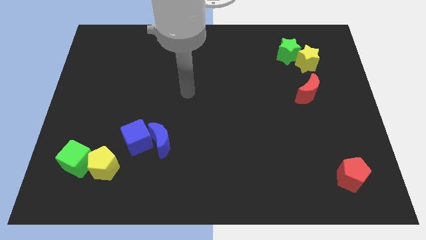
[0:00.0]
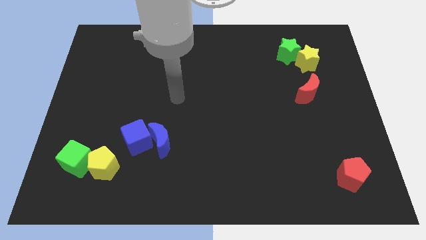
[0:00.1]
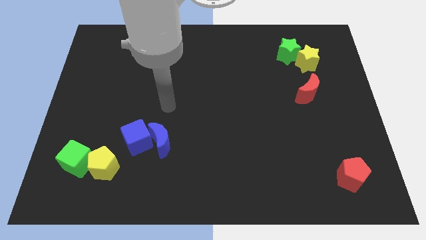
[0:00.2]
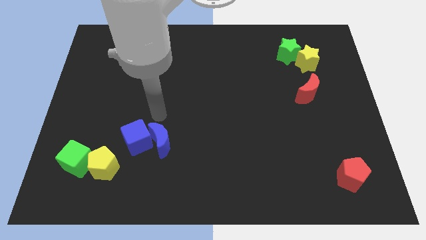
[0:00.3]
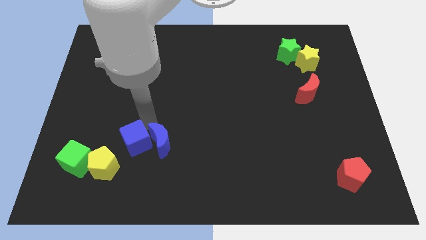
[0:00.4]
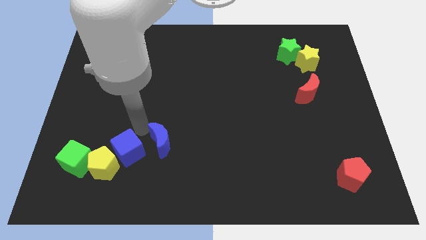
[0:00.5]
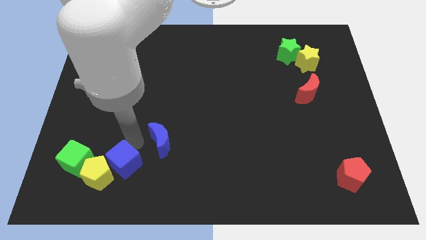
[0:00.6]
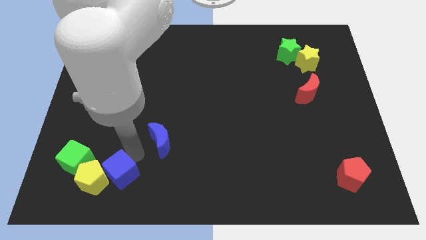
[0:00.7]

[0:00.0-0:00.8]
move the blue moon away from the blue cube

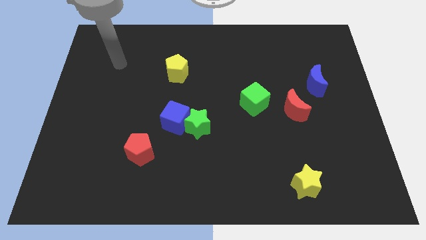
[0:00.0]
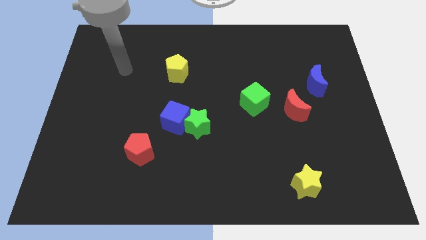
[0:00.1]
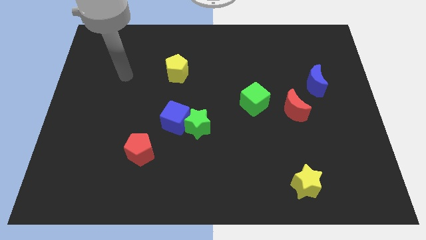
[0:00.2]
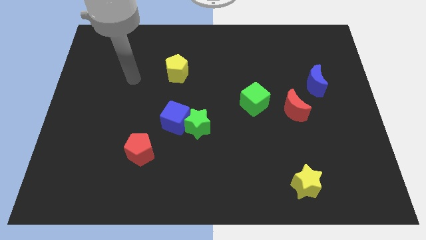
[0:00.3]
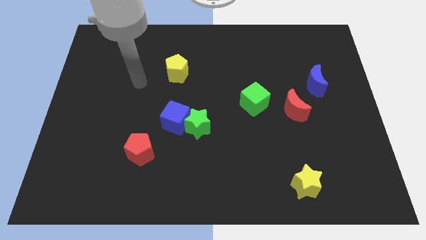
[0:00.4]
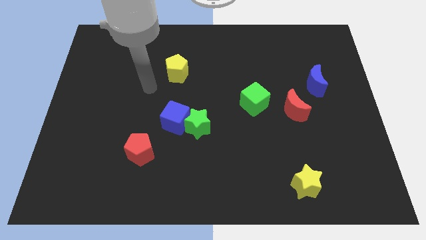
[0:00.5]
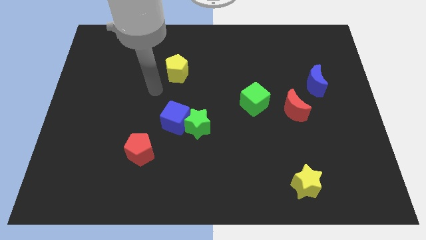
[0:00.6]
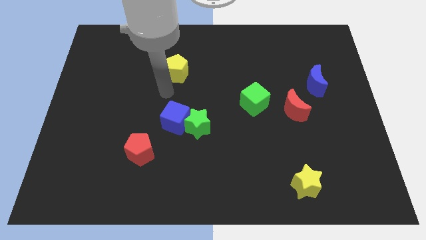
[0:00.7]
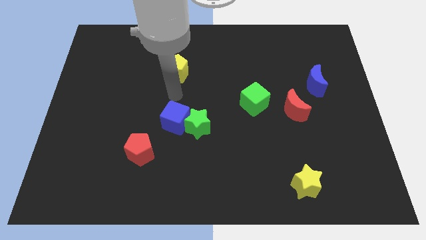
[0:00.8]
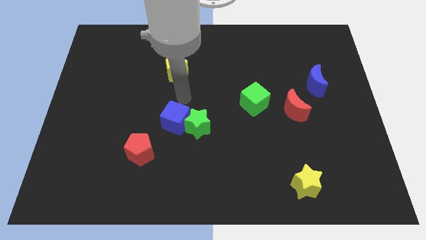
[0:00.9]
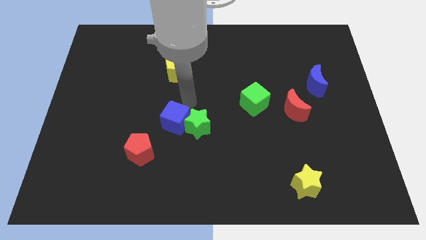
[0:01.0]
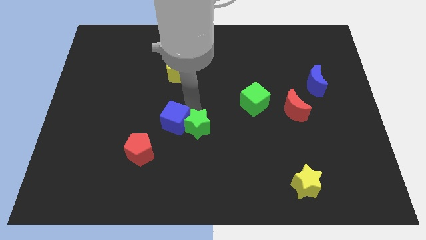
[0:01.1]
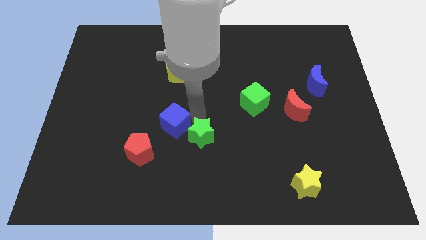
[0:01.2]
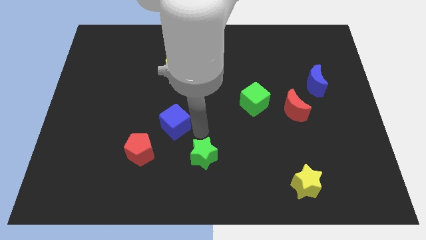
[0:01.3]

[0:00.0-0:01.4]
separate the blue cube from the green star

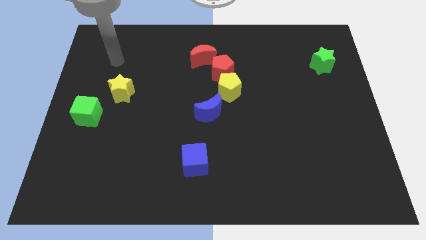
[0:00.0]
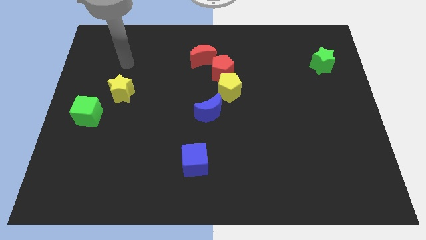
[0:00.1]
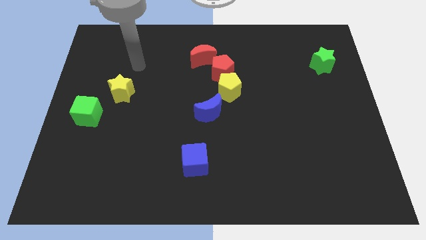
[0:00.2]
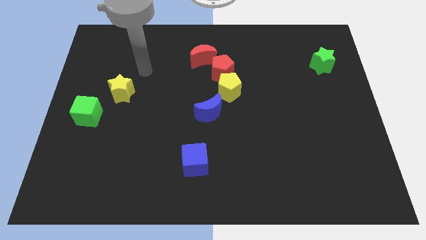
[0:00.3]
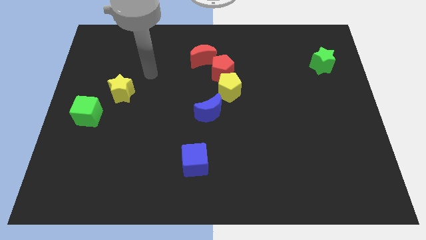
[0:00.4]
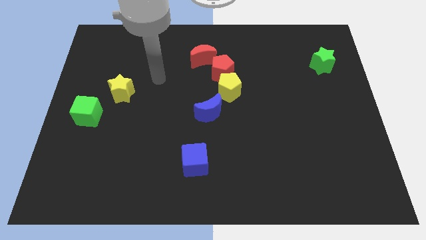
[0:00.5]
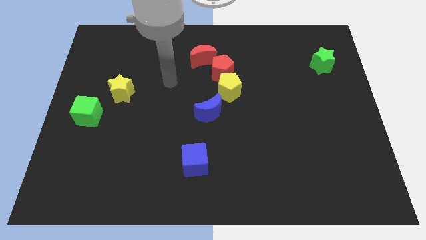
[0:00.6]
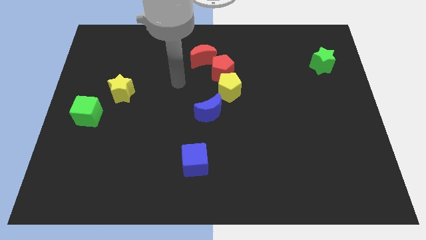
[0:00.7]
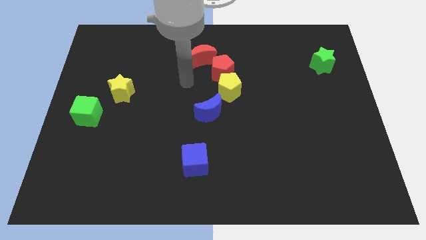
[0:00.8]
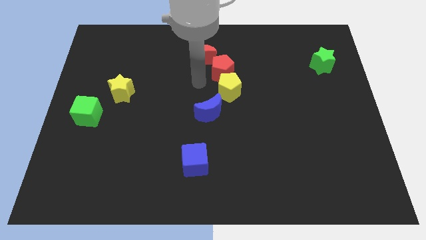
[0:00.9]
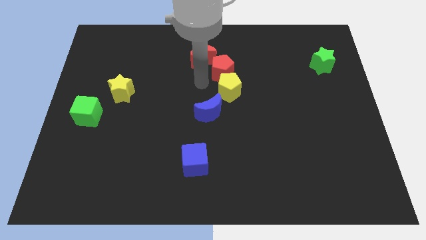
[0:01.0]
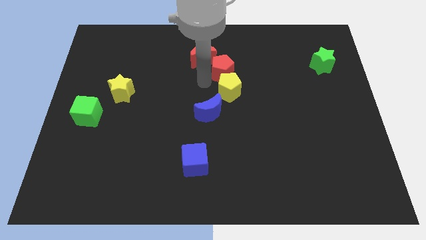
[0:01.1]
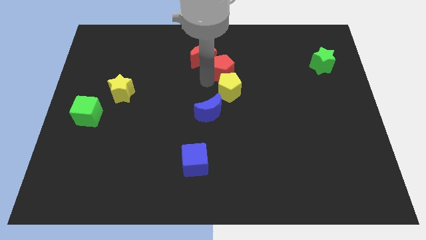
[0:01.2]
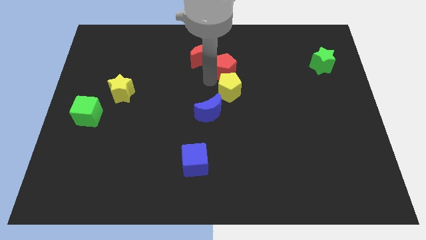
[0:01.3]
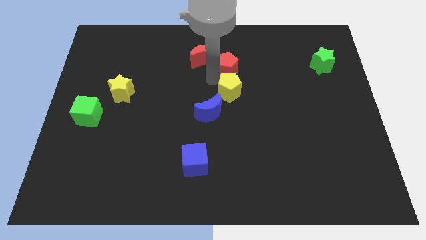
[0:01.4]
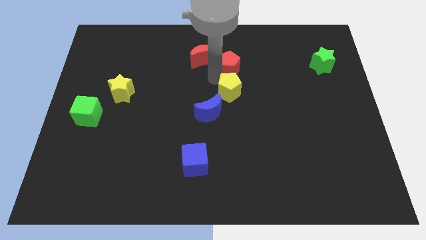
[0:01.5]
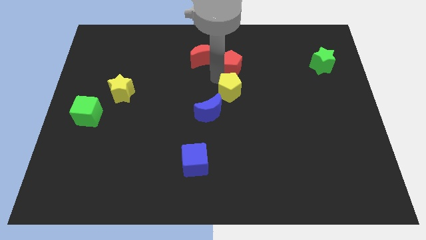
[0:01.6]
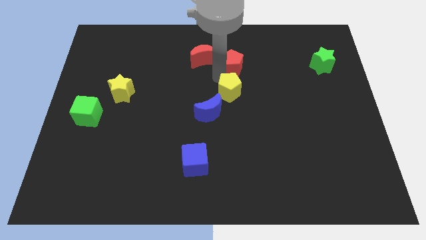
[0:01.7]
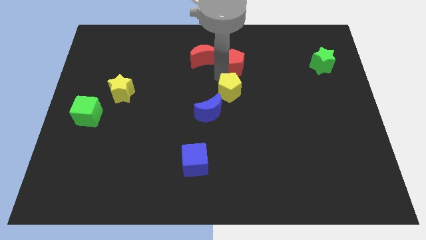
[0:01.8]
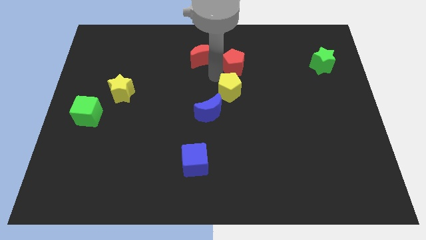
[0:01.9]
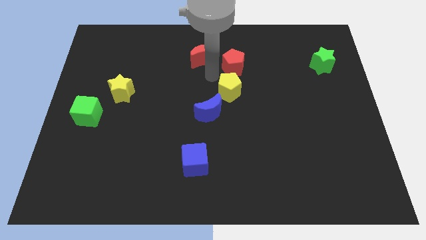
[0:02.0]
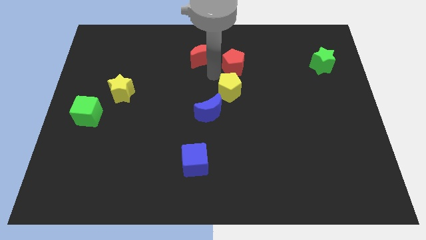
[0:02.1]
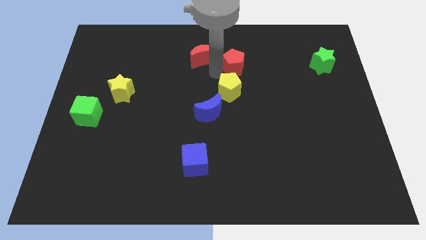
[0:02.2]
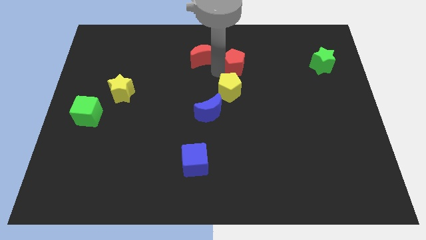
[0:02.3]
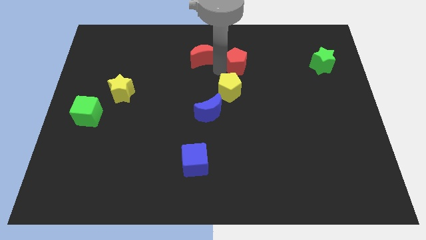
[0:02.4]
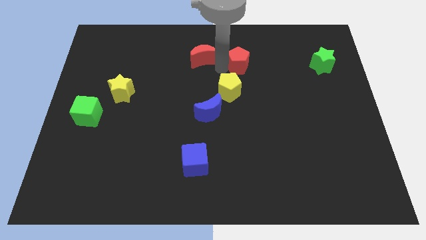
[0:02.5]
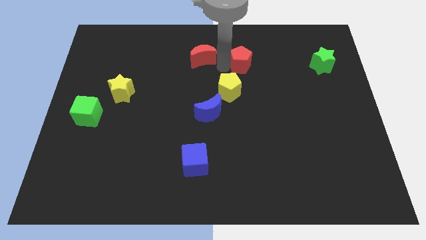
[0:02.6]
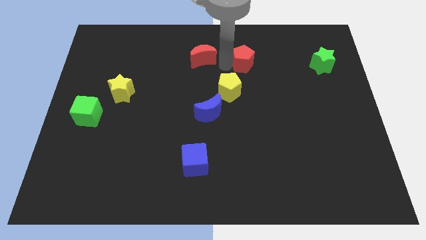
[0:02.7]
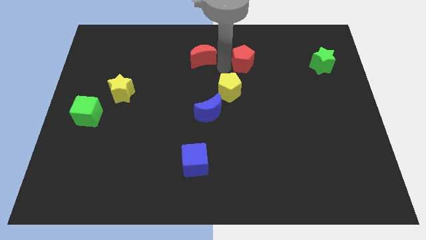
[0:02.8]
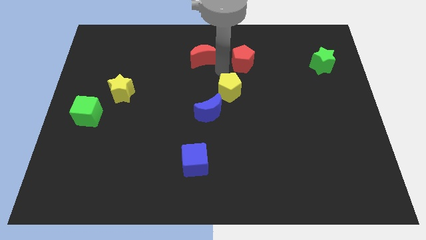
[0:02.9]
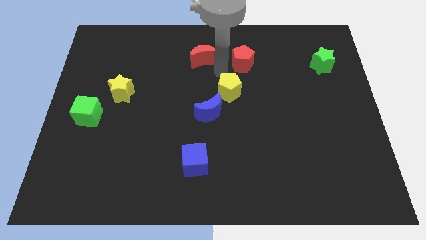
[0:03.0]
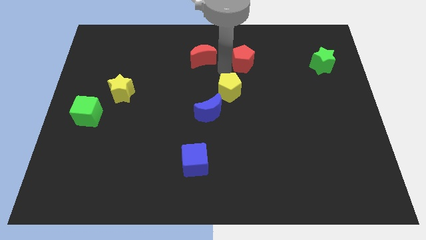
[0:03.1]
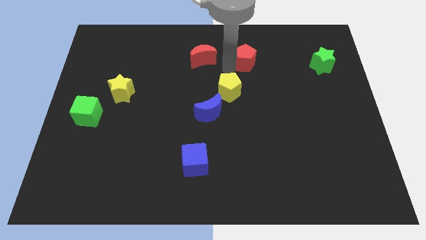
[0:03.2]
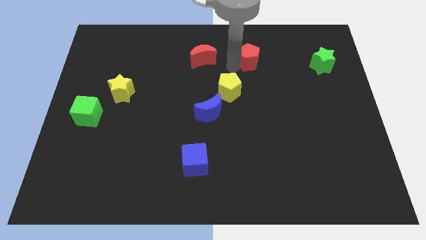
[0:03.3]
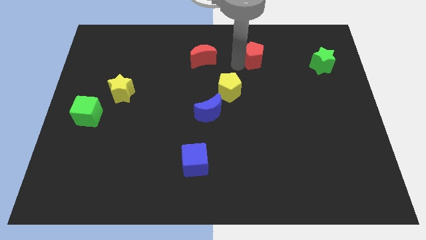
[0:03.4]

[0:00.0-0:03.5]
move the red pentagon away from the yellow pentagon and red moon

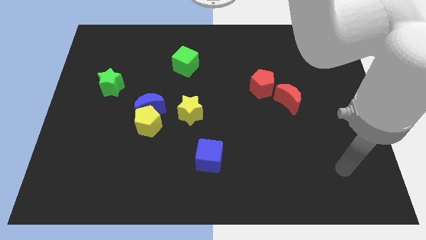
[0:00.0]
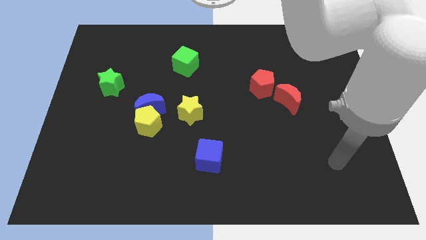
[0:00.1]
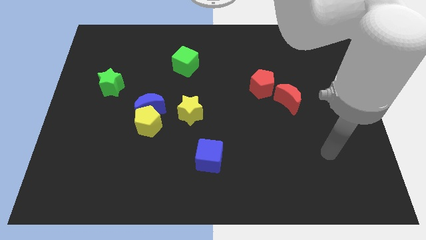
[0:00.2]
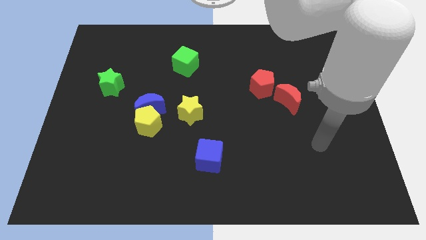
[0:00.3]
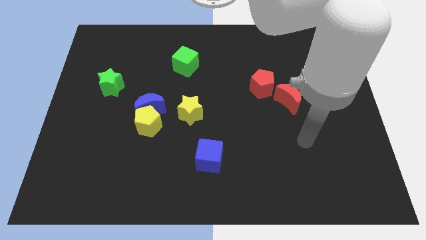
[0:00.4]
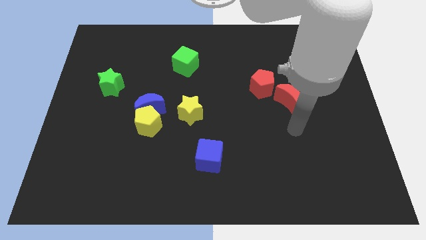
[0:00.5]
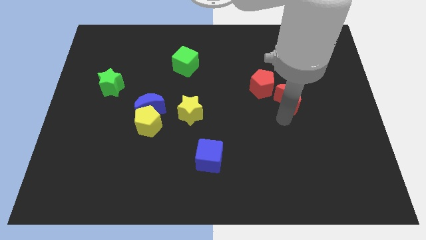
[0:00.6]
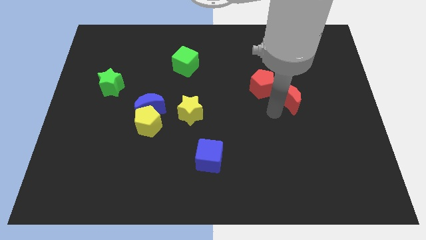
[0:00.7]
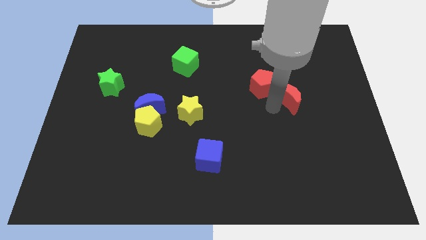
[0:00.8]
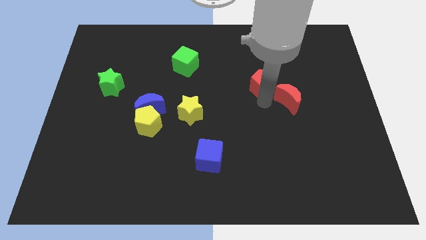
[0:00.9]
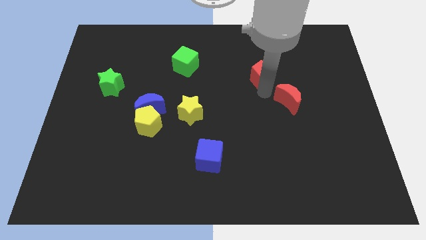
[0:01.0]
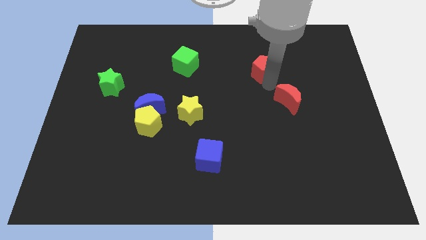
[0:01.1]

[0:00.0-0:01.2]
pull the red moon apart from the red pentagon

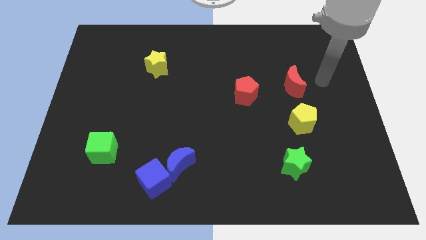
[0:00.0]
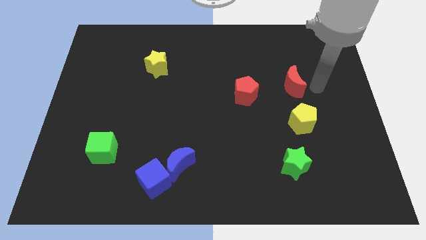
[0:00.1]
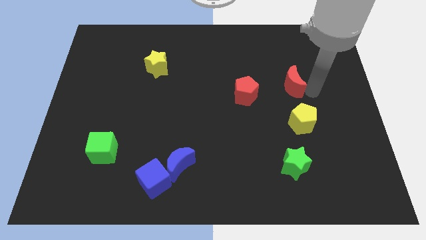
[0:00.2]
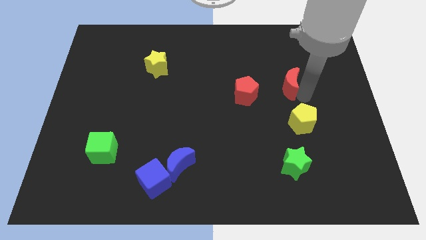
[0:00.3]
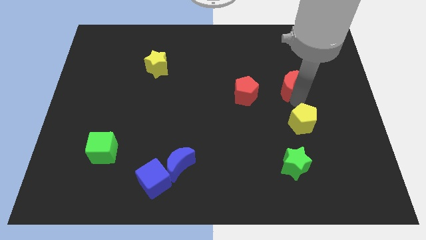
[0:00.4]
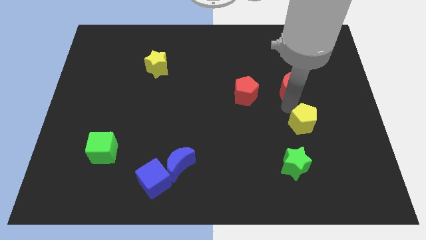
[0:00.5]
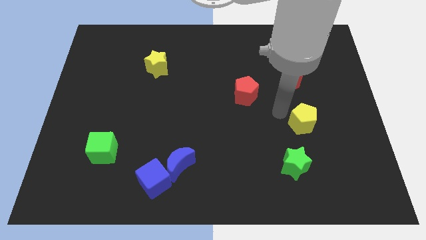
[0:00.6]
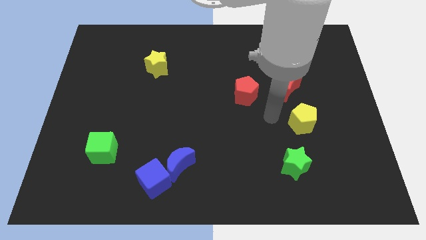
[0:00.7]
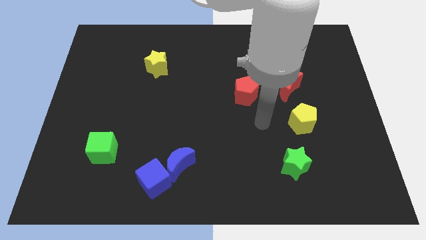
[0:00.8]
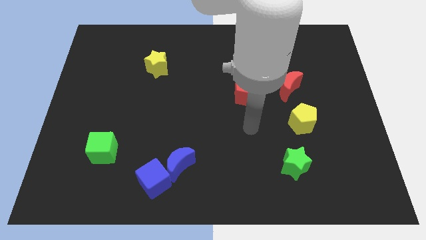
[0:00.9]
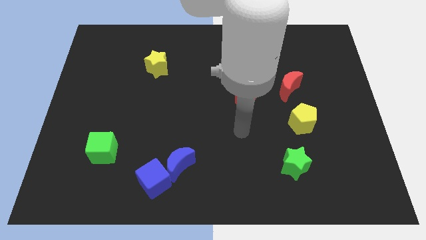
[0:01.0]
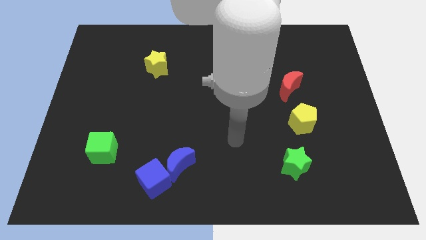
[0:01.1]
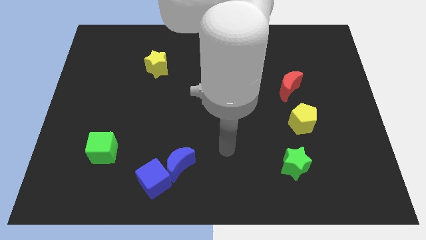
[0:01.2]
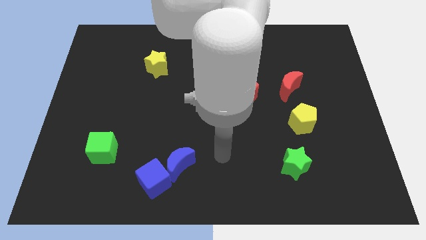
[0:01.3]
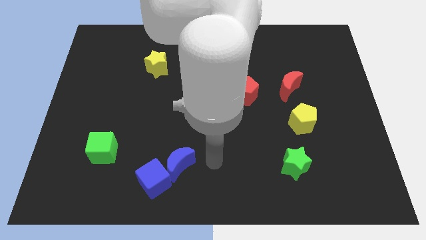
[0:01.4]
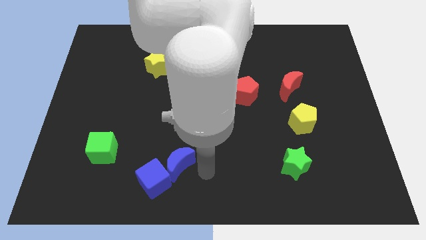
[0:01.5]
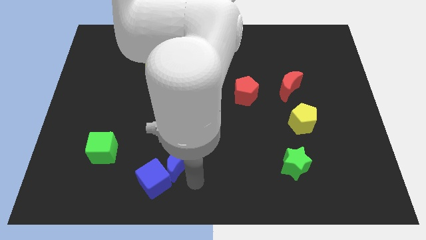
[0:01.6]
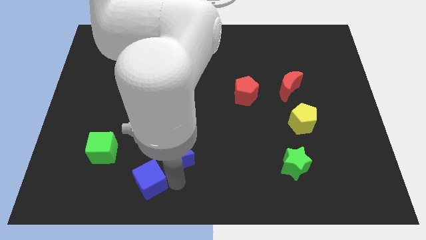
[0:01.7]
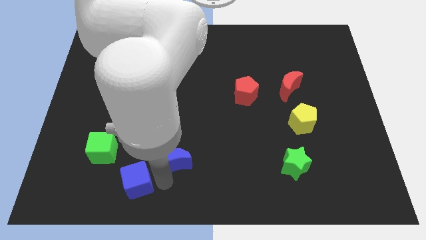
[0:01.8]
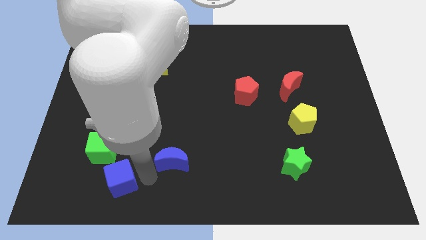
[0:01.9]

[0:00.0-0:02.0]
separate the blue moon from the blue cube

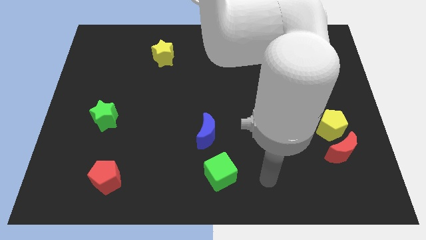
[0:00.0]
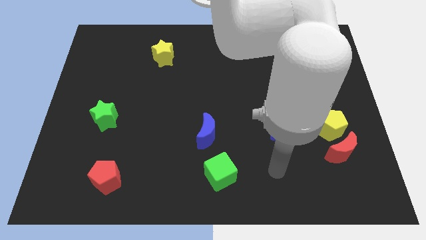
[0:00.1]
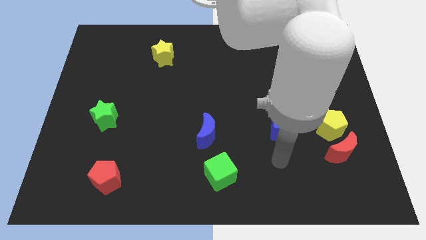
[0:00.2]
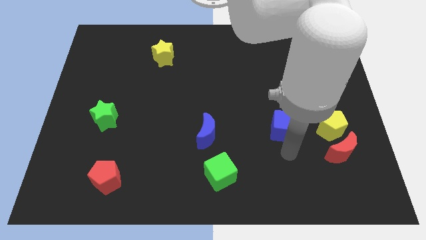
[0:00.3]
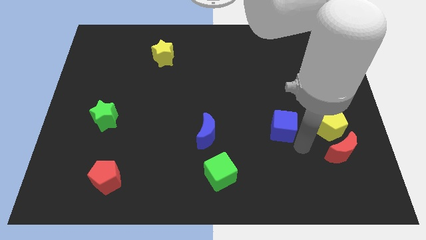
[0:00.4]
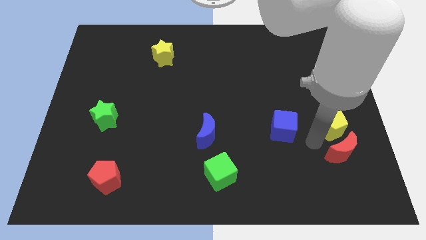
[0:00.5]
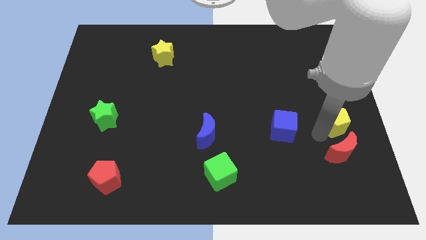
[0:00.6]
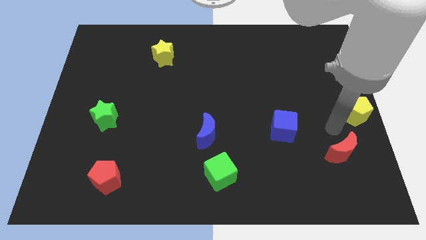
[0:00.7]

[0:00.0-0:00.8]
move the red moon away from the yellow pentagon
